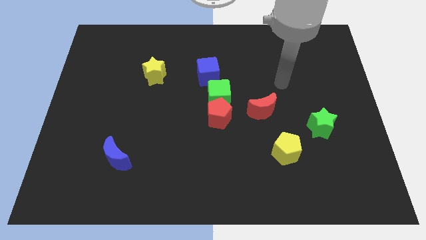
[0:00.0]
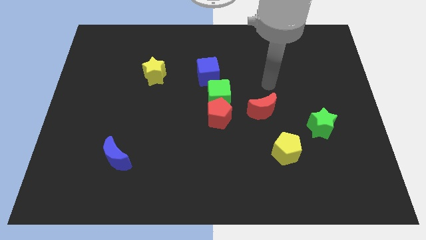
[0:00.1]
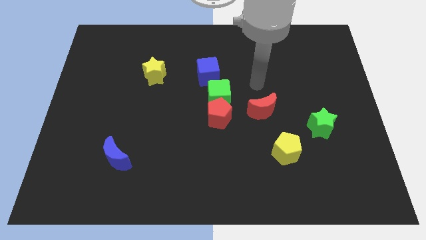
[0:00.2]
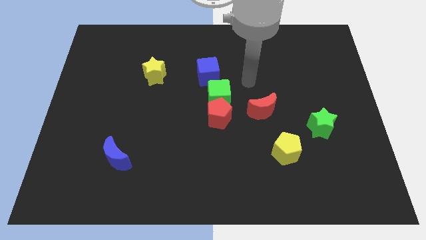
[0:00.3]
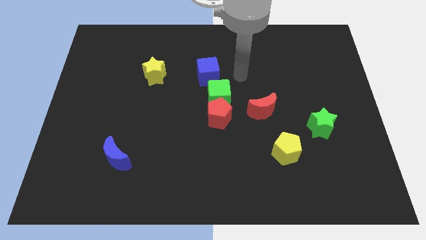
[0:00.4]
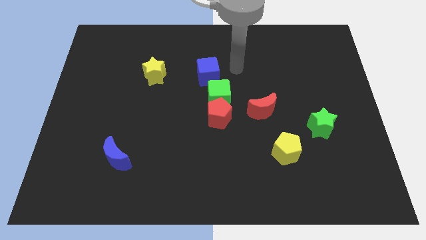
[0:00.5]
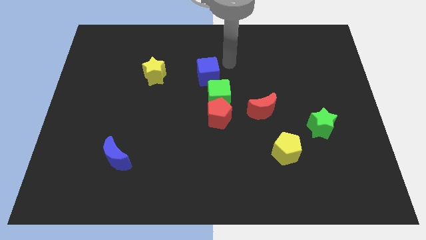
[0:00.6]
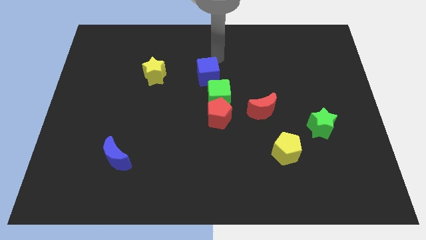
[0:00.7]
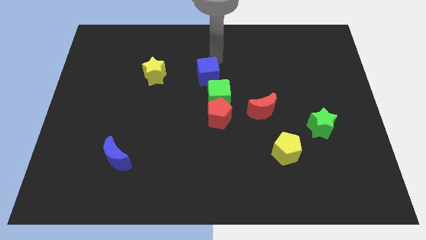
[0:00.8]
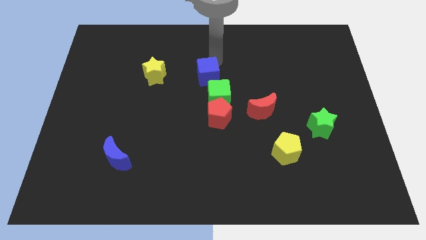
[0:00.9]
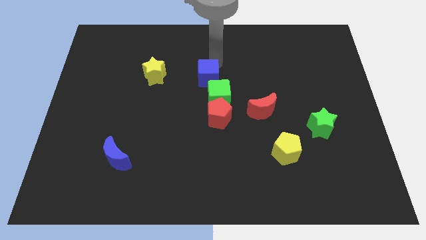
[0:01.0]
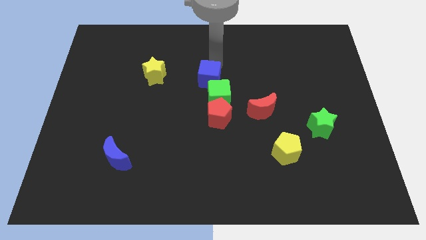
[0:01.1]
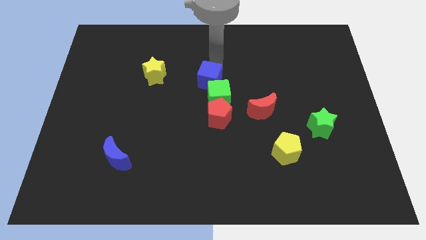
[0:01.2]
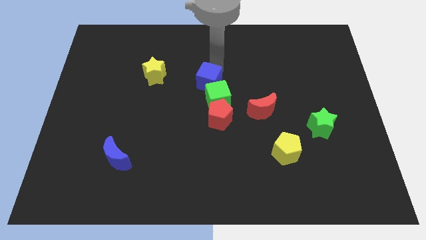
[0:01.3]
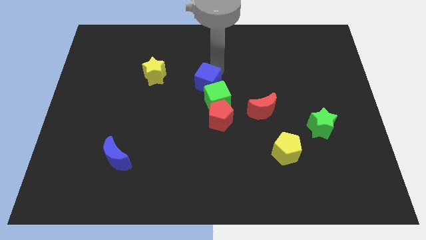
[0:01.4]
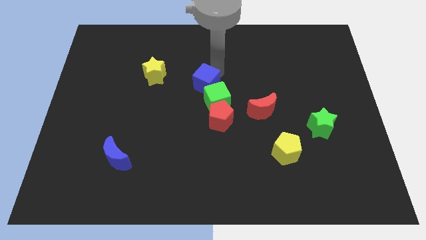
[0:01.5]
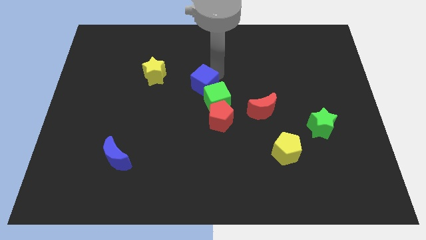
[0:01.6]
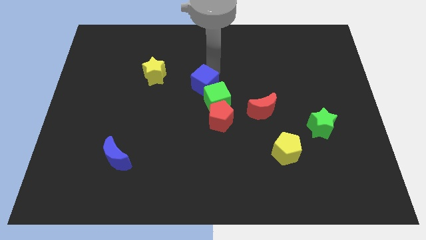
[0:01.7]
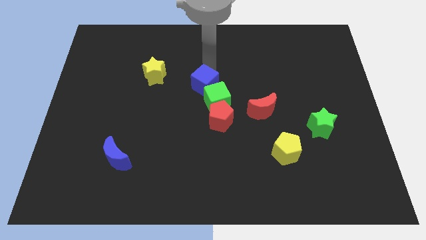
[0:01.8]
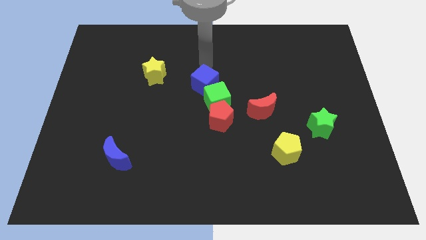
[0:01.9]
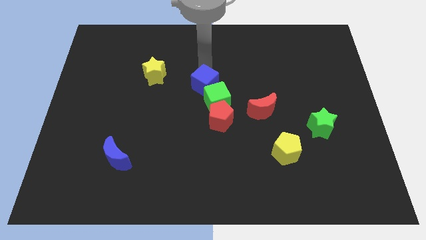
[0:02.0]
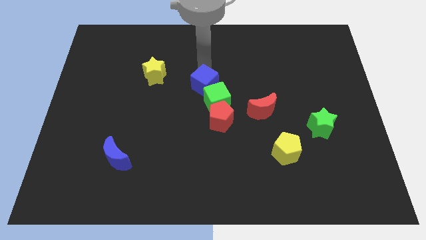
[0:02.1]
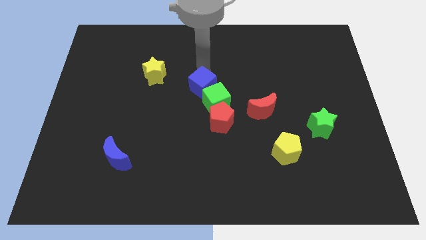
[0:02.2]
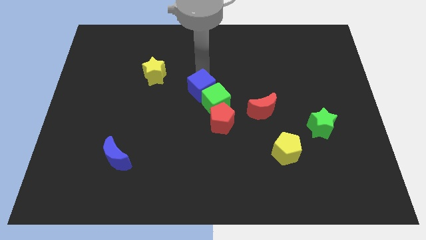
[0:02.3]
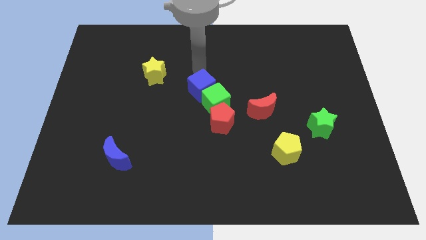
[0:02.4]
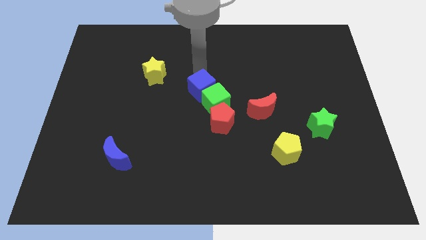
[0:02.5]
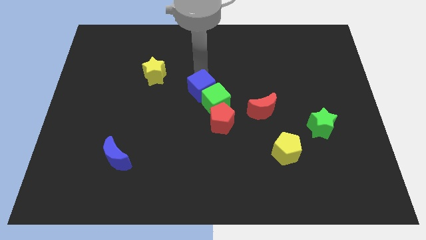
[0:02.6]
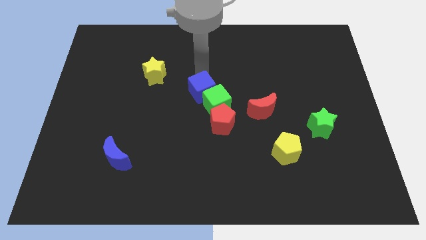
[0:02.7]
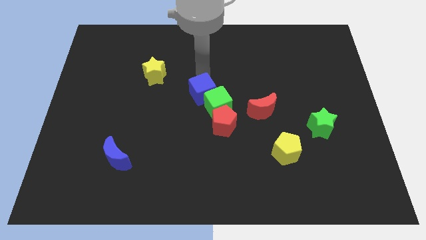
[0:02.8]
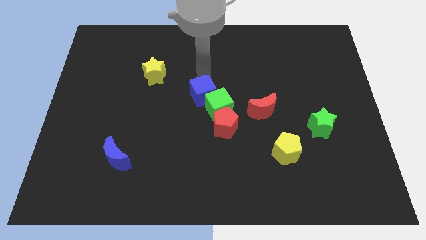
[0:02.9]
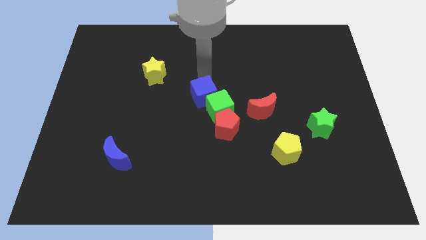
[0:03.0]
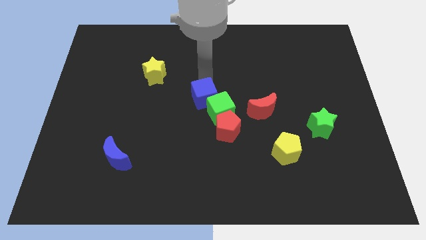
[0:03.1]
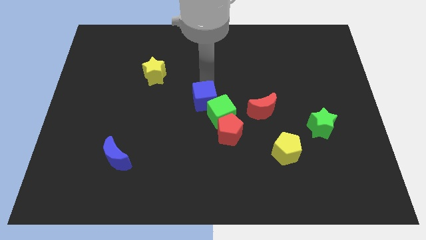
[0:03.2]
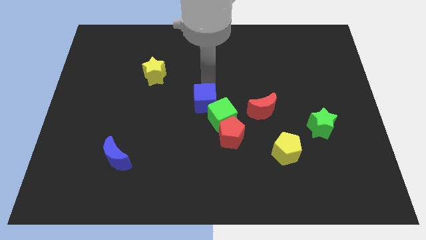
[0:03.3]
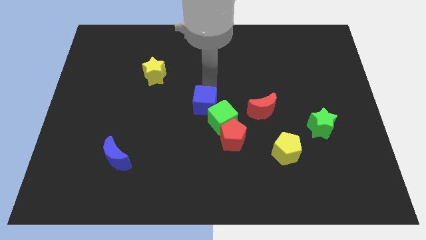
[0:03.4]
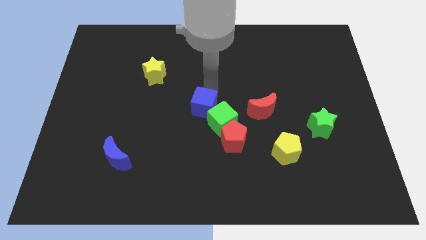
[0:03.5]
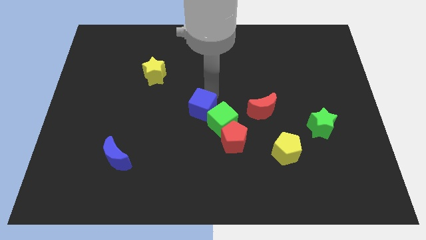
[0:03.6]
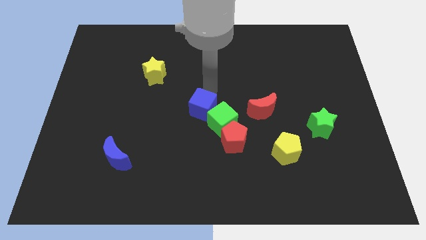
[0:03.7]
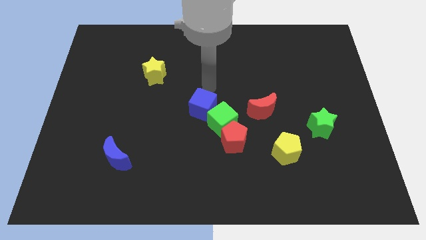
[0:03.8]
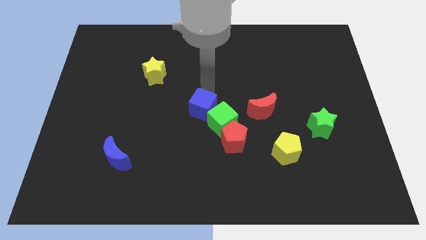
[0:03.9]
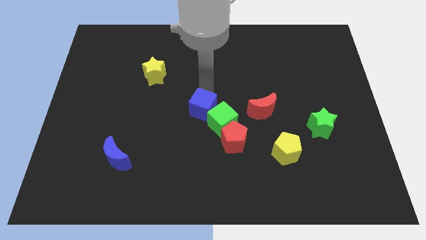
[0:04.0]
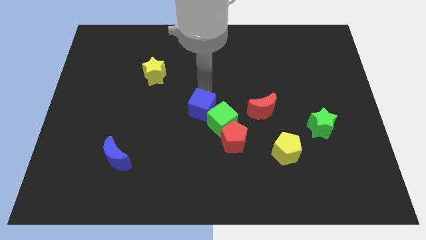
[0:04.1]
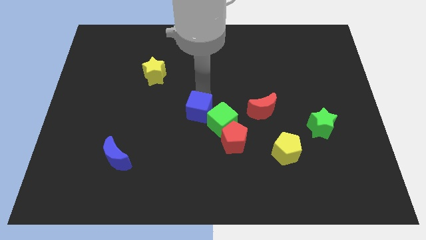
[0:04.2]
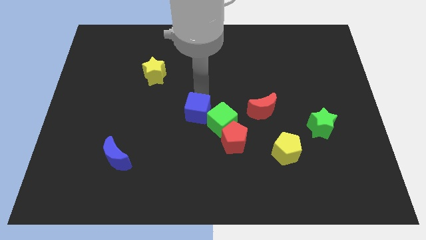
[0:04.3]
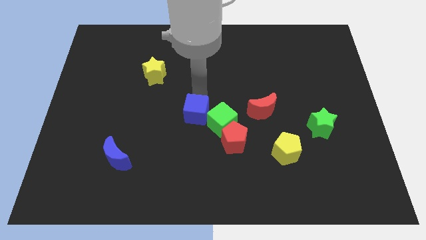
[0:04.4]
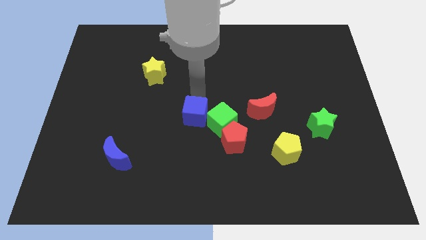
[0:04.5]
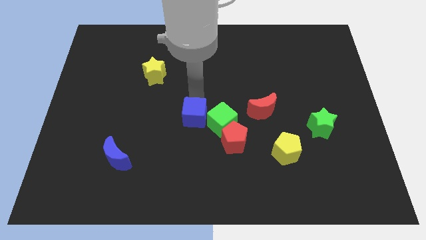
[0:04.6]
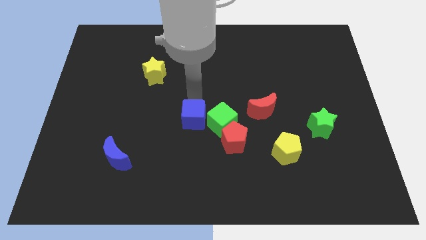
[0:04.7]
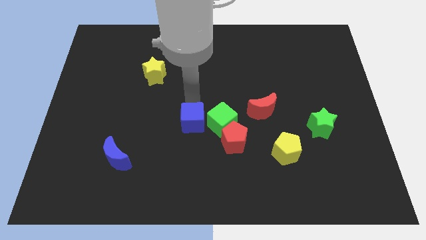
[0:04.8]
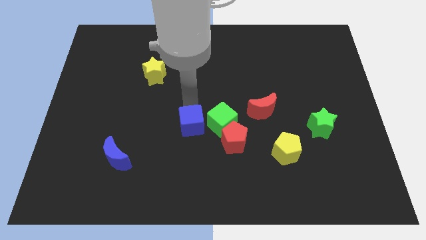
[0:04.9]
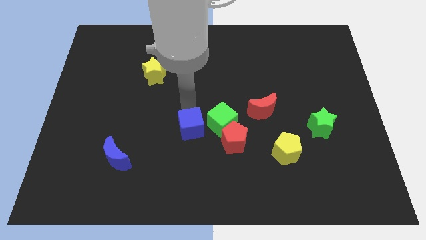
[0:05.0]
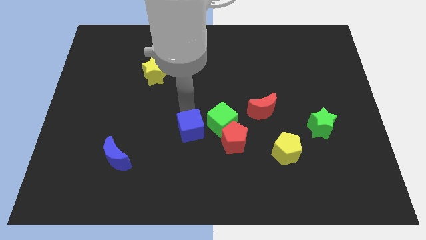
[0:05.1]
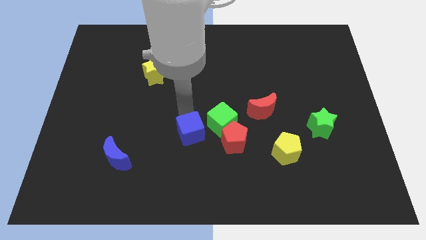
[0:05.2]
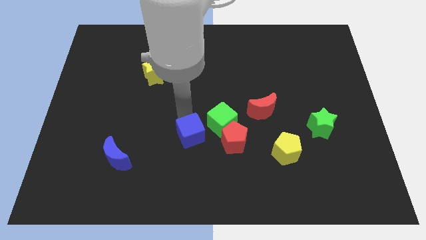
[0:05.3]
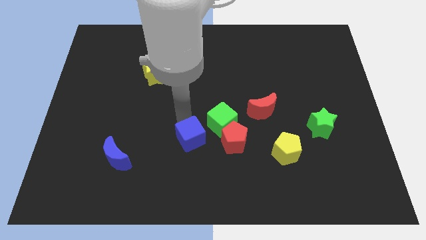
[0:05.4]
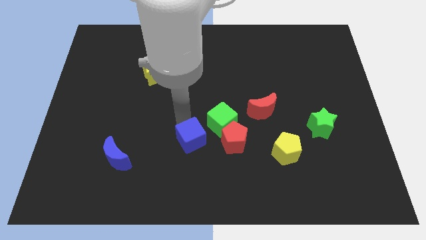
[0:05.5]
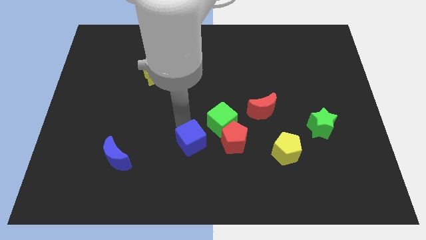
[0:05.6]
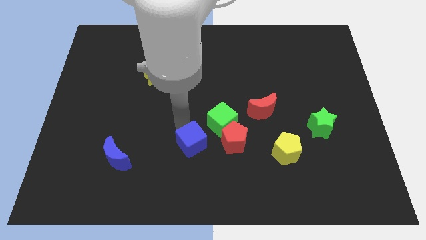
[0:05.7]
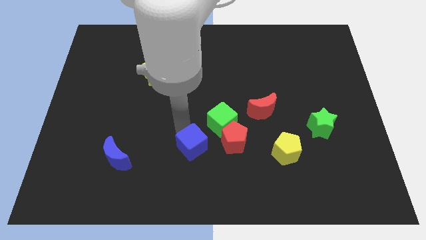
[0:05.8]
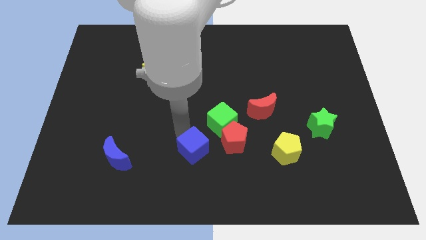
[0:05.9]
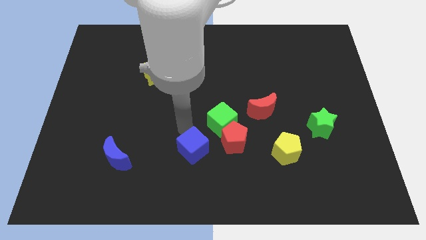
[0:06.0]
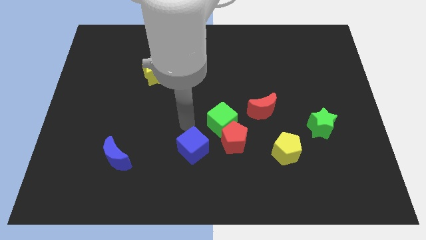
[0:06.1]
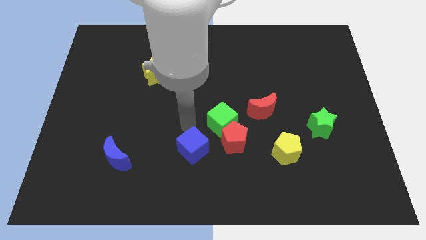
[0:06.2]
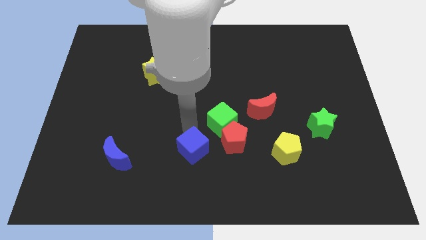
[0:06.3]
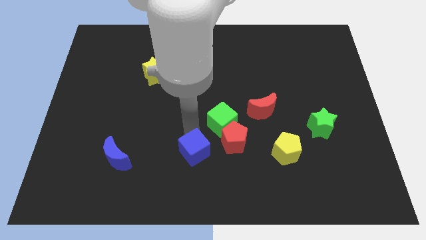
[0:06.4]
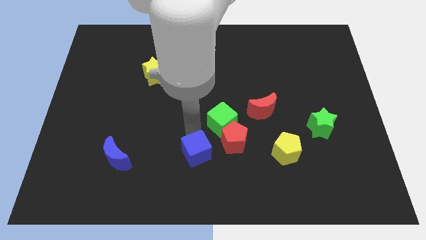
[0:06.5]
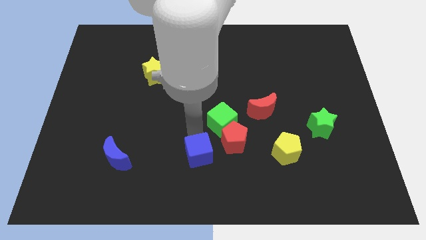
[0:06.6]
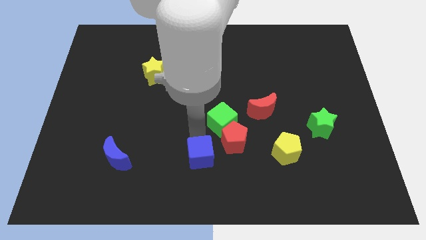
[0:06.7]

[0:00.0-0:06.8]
put the blue cube to the bottom side

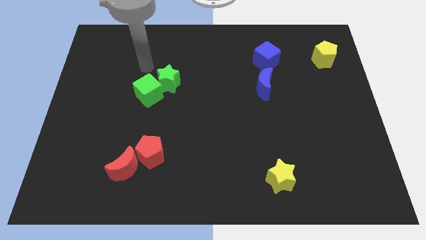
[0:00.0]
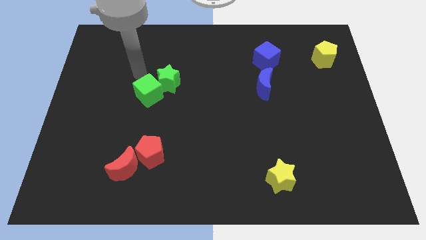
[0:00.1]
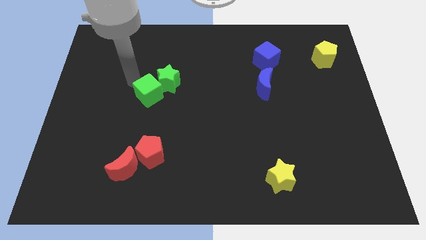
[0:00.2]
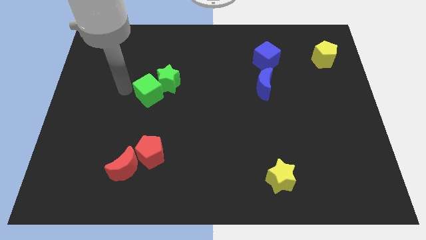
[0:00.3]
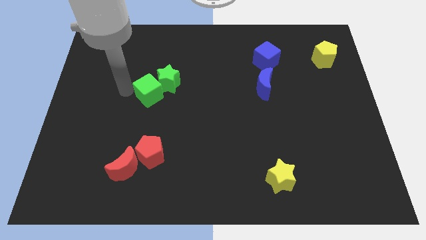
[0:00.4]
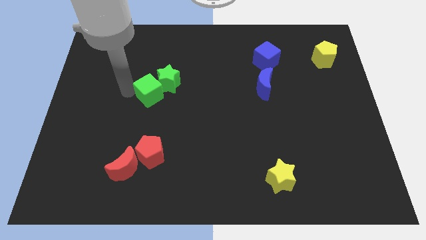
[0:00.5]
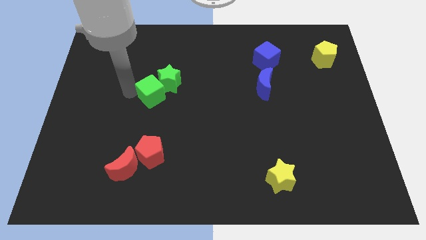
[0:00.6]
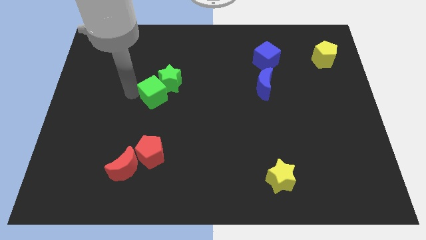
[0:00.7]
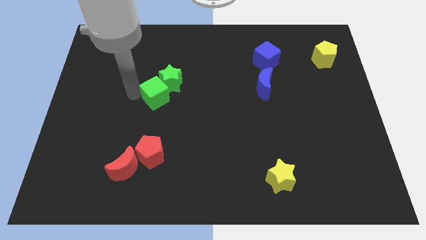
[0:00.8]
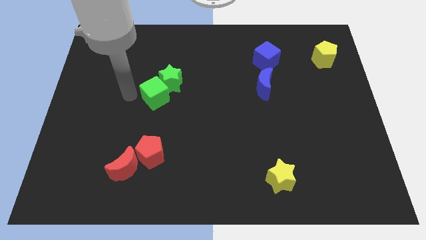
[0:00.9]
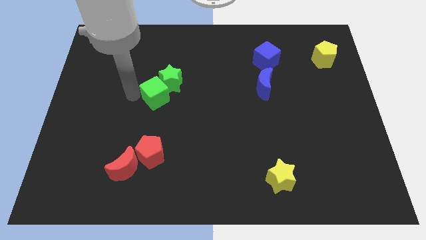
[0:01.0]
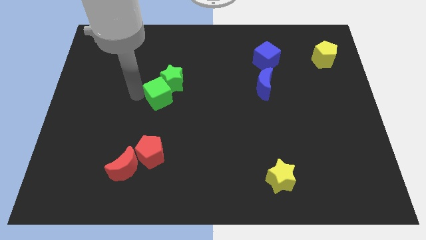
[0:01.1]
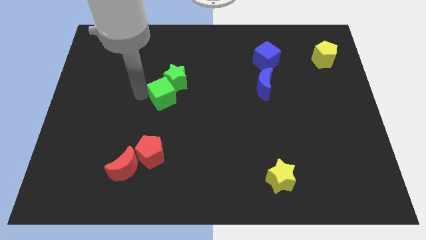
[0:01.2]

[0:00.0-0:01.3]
push the green cube to the center of the board
